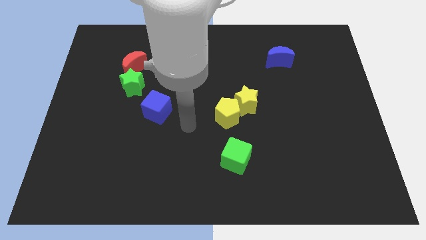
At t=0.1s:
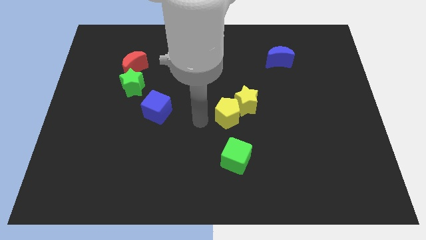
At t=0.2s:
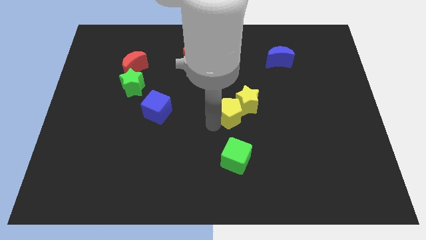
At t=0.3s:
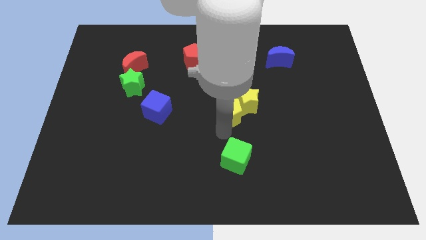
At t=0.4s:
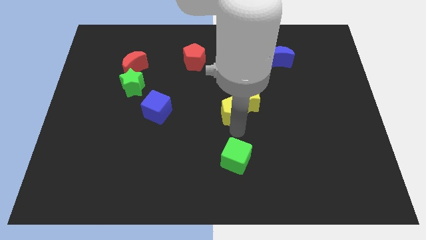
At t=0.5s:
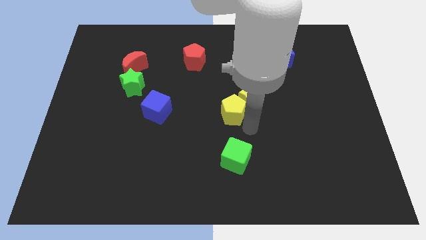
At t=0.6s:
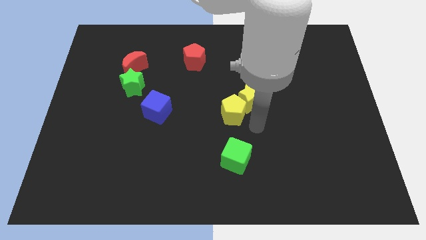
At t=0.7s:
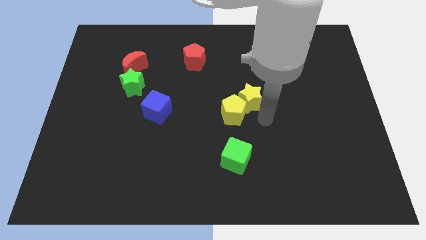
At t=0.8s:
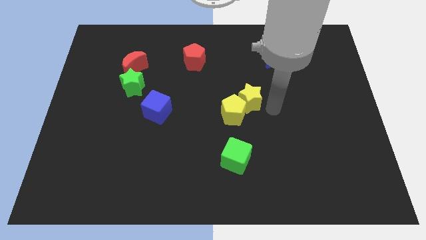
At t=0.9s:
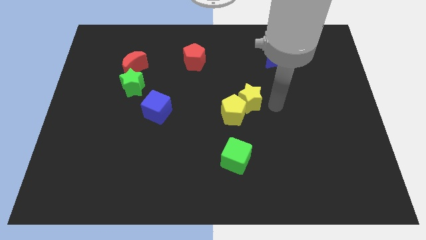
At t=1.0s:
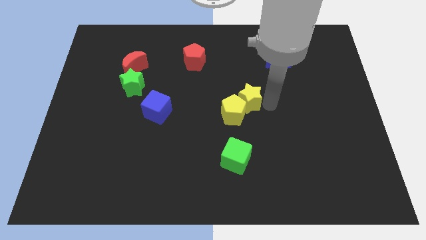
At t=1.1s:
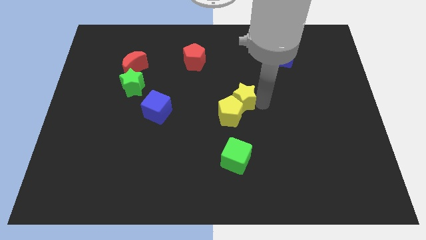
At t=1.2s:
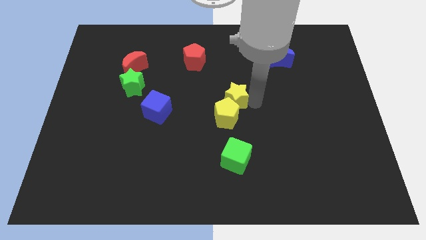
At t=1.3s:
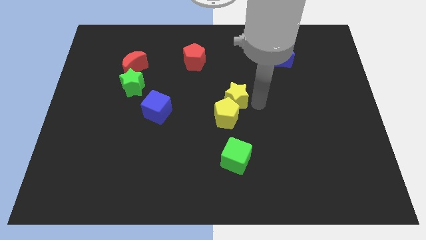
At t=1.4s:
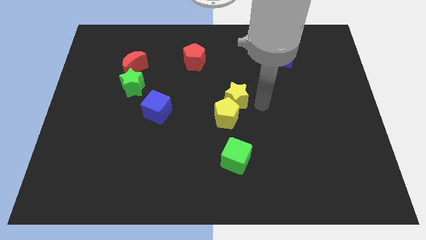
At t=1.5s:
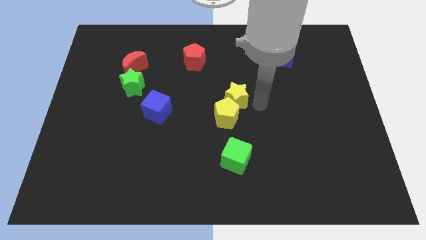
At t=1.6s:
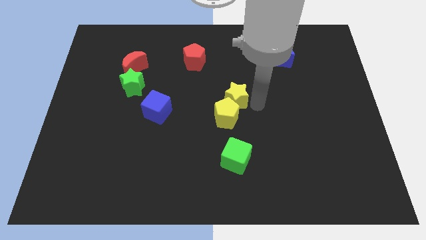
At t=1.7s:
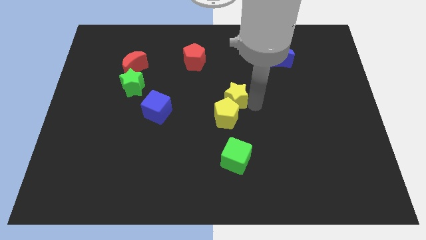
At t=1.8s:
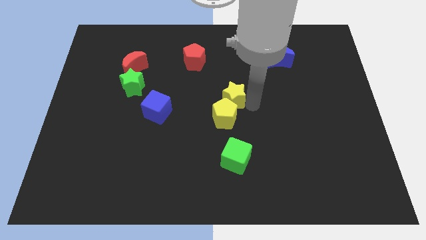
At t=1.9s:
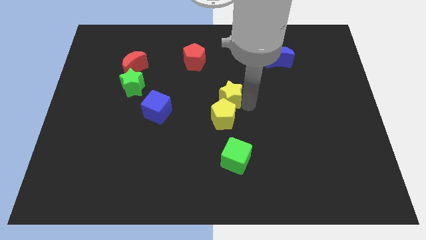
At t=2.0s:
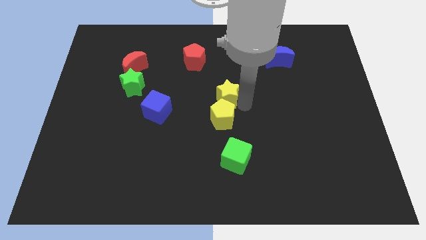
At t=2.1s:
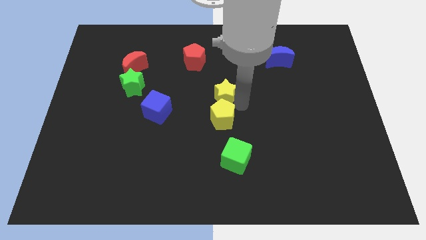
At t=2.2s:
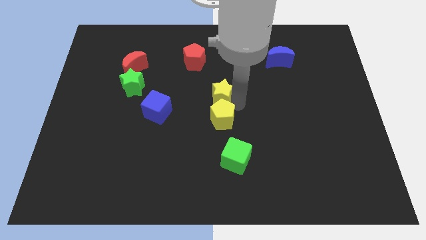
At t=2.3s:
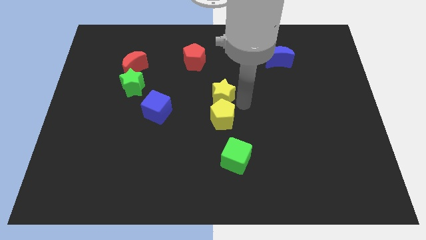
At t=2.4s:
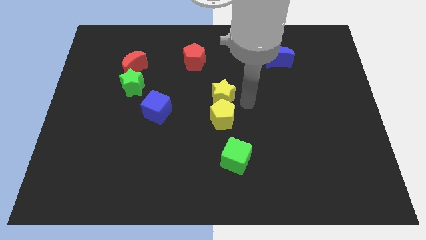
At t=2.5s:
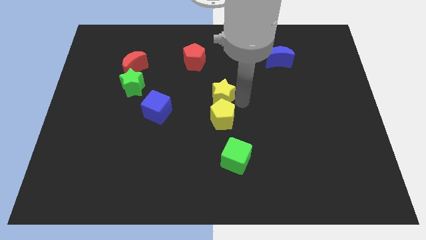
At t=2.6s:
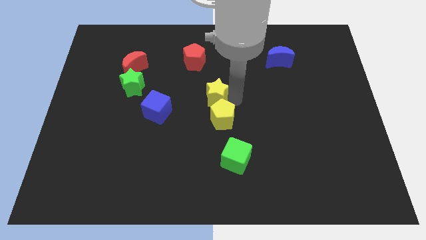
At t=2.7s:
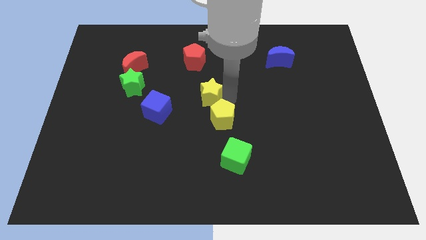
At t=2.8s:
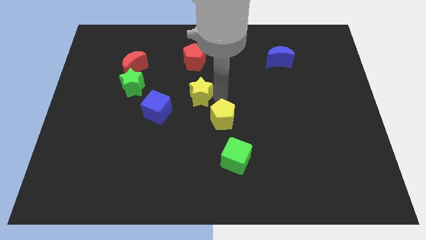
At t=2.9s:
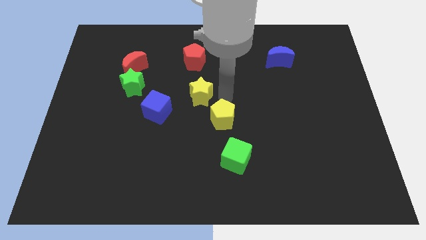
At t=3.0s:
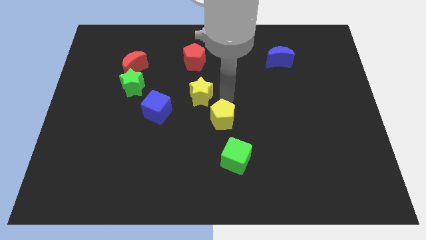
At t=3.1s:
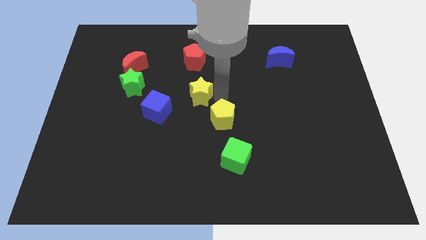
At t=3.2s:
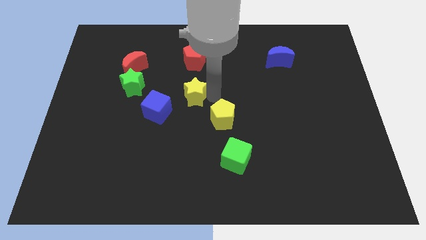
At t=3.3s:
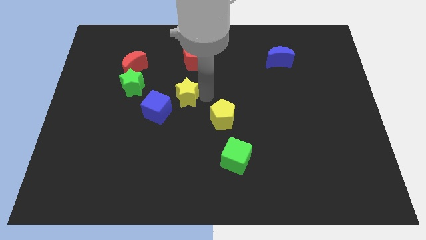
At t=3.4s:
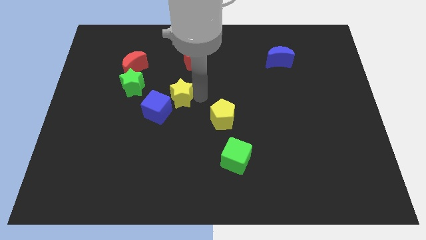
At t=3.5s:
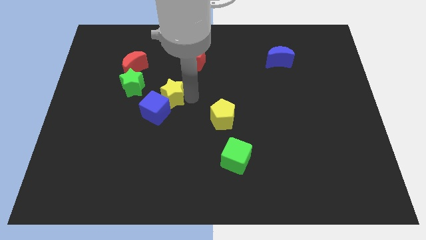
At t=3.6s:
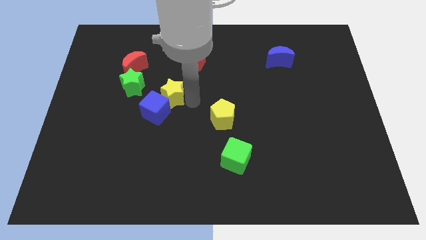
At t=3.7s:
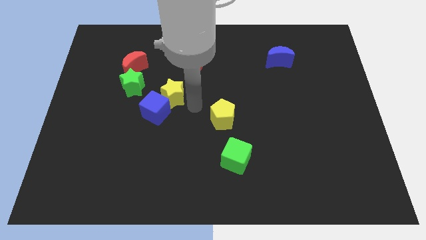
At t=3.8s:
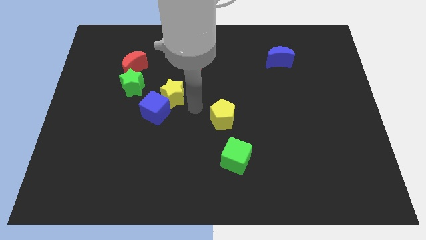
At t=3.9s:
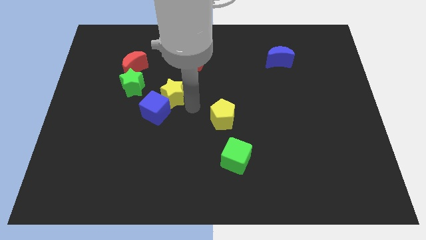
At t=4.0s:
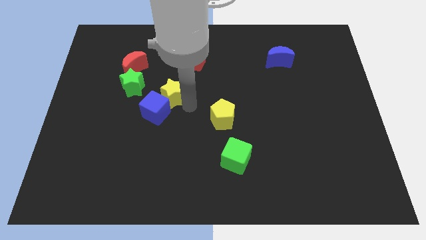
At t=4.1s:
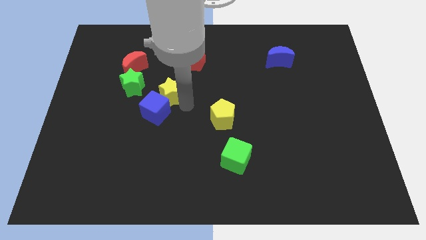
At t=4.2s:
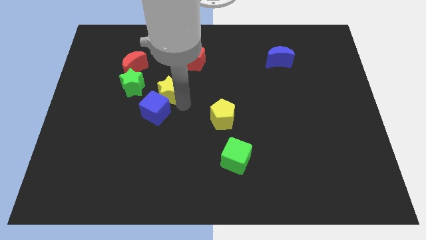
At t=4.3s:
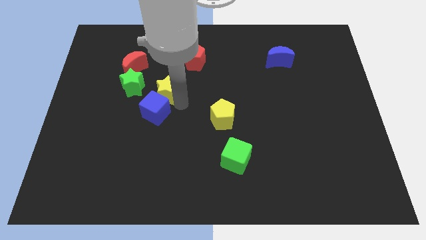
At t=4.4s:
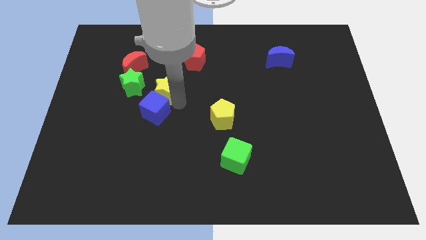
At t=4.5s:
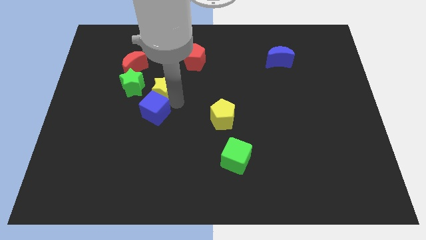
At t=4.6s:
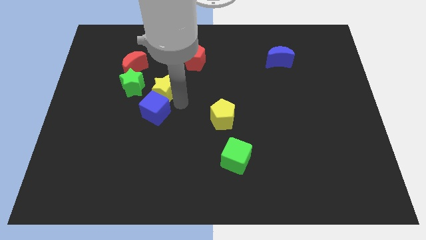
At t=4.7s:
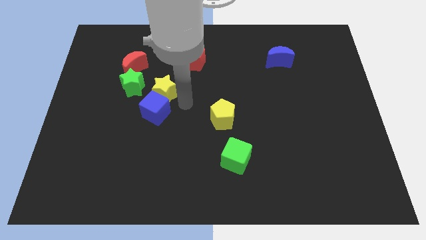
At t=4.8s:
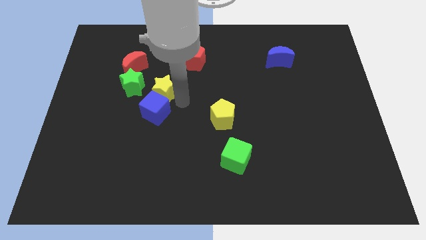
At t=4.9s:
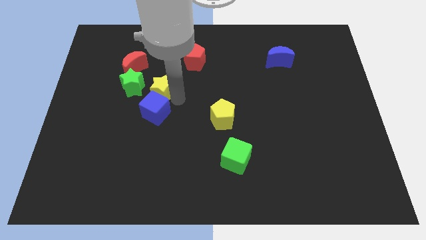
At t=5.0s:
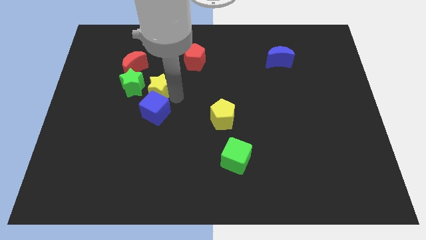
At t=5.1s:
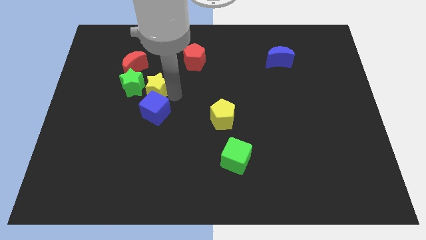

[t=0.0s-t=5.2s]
move the yellow star to the green star

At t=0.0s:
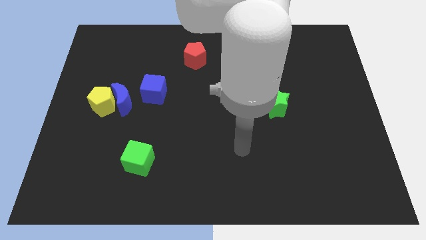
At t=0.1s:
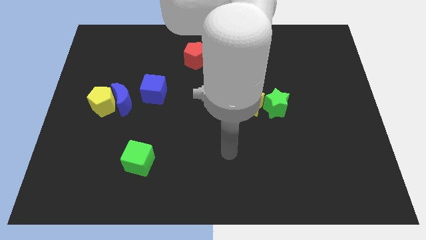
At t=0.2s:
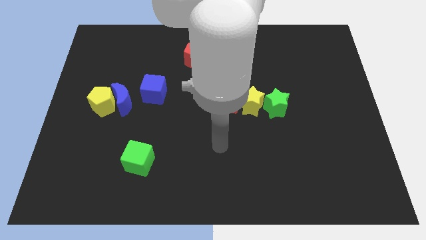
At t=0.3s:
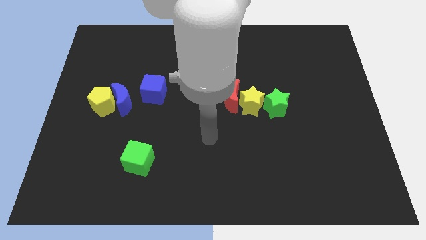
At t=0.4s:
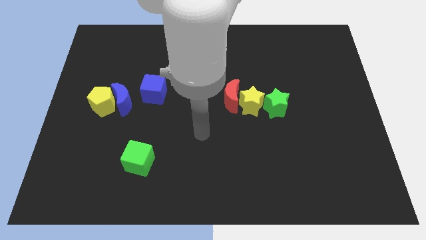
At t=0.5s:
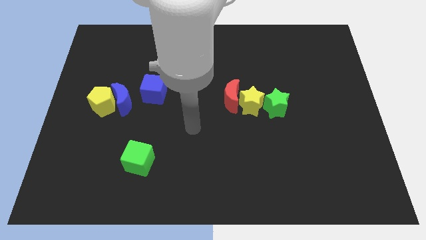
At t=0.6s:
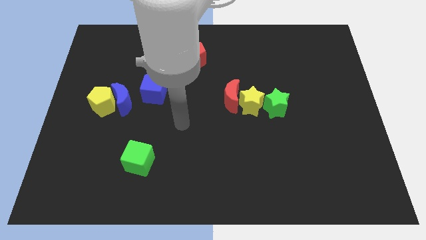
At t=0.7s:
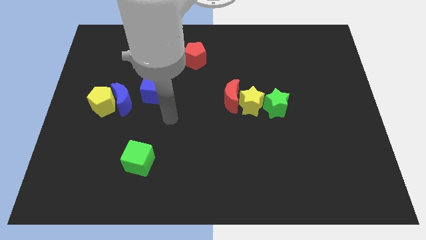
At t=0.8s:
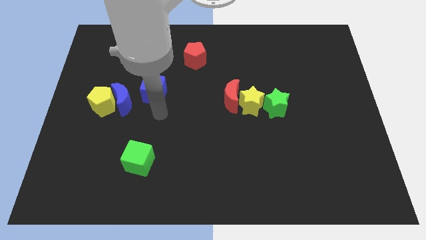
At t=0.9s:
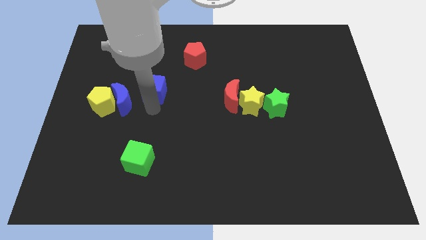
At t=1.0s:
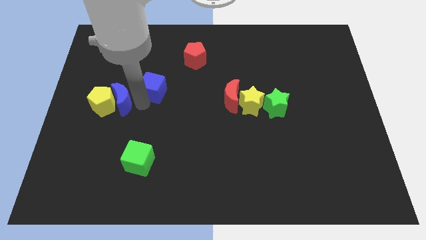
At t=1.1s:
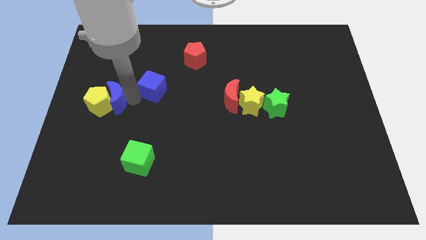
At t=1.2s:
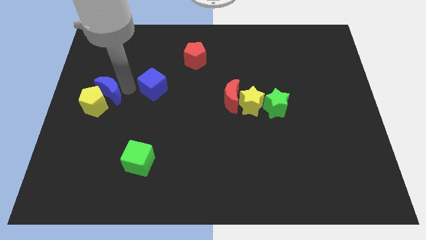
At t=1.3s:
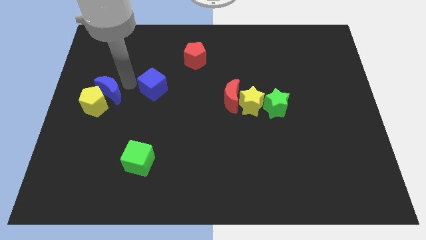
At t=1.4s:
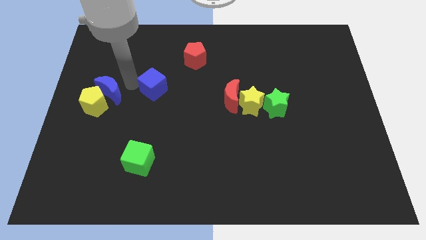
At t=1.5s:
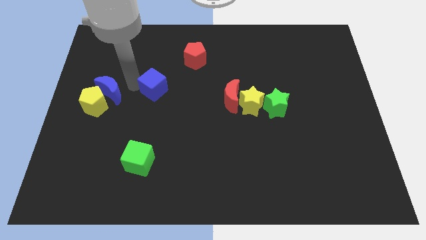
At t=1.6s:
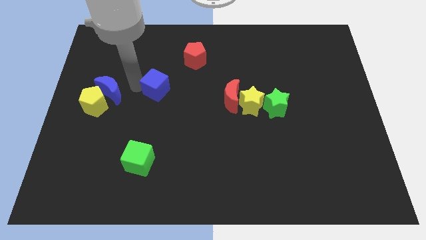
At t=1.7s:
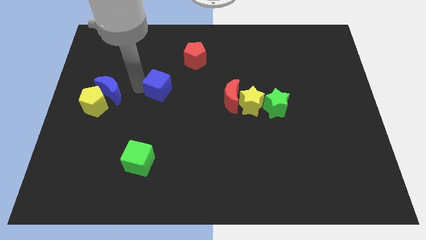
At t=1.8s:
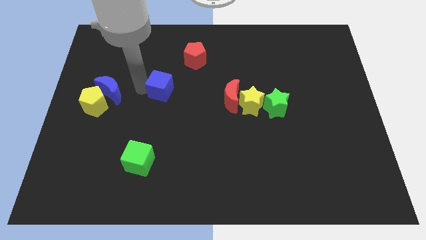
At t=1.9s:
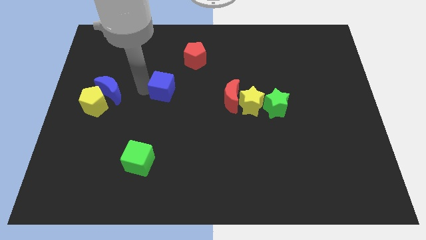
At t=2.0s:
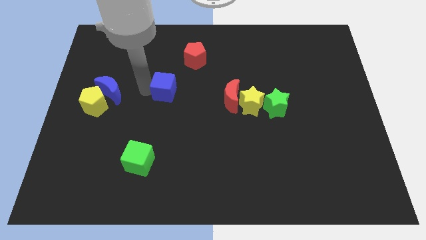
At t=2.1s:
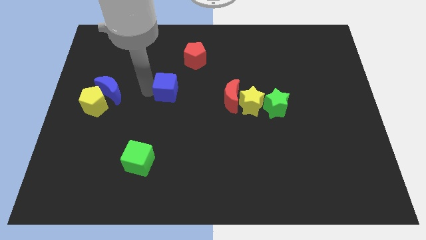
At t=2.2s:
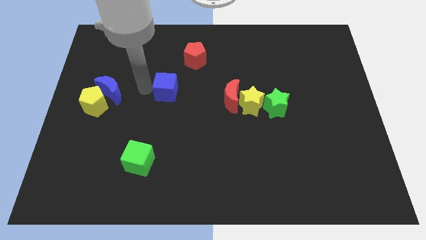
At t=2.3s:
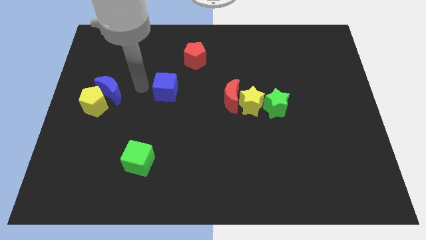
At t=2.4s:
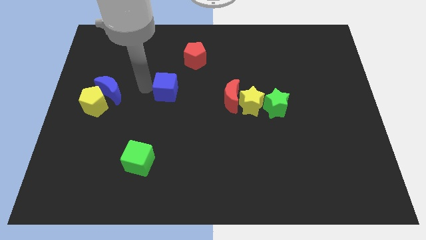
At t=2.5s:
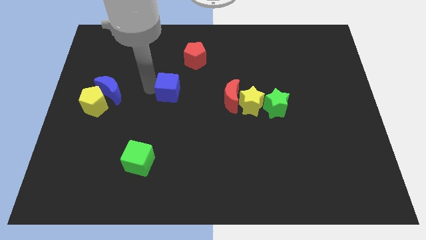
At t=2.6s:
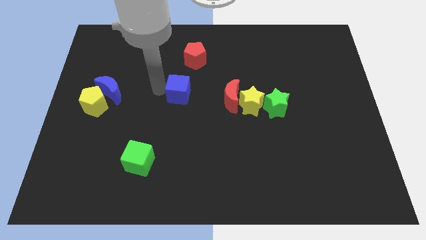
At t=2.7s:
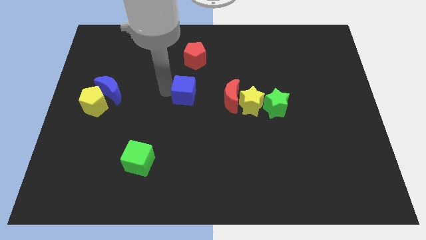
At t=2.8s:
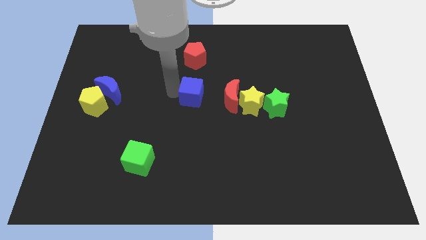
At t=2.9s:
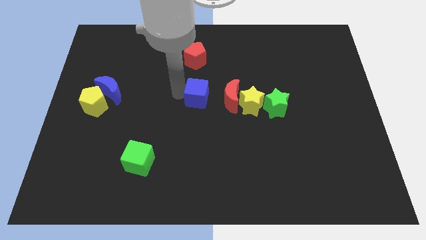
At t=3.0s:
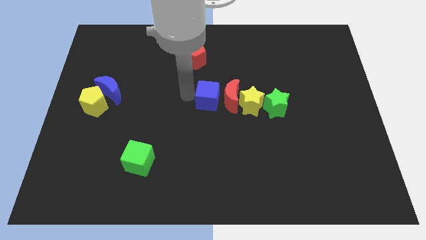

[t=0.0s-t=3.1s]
put the blue cube towards the red moon
